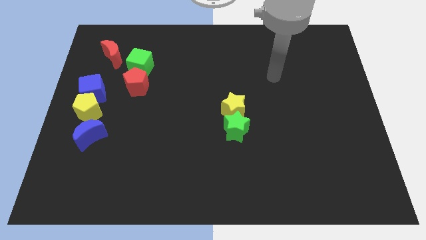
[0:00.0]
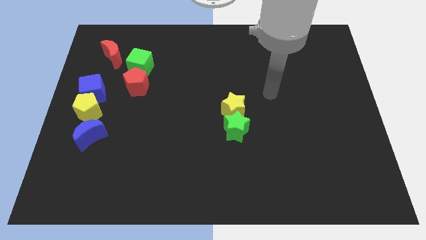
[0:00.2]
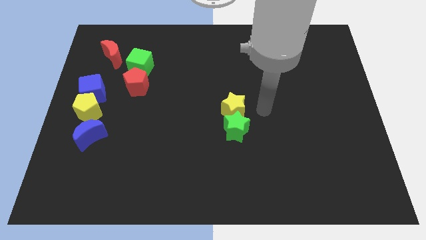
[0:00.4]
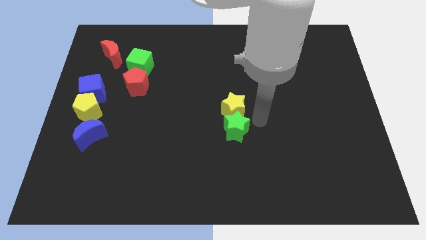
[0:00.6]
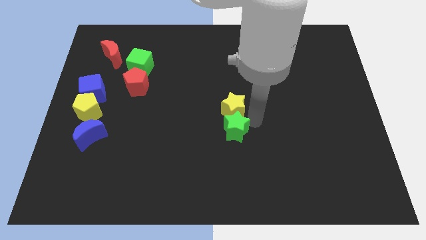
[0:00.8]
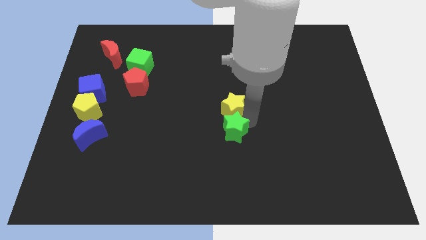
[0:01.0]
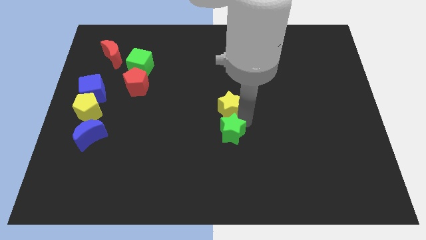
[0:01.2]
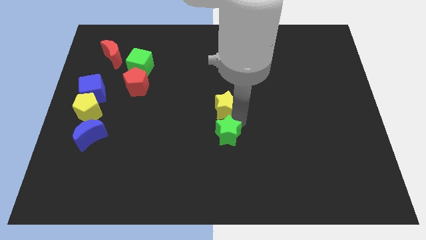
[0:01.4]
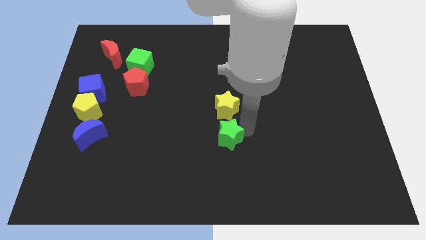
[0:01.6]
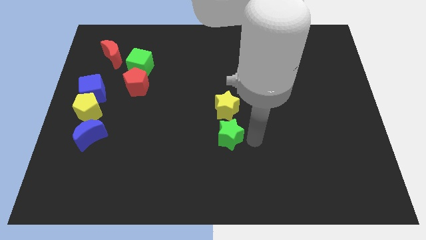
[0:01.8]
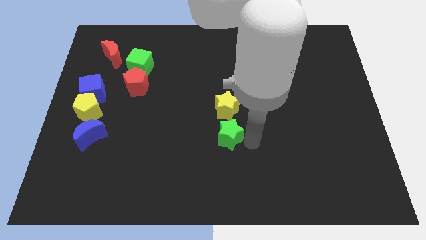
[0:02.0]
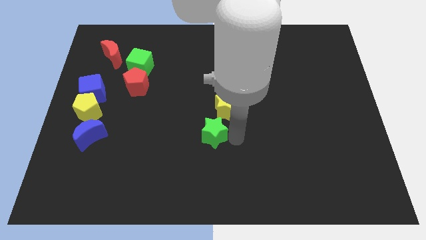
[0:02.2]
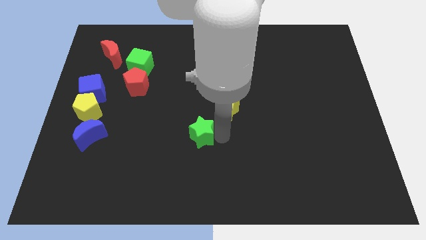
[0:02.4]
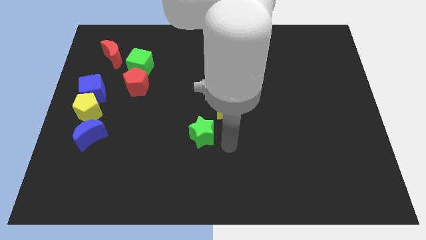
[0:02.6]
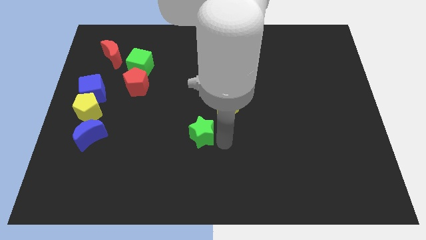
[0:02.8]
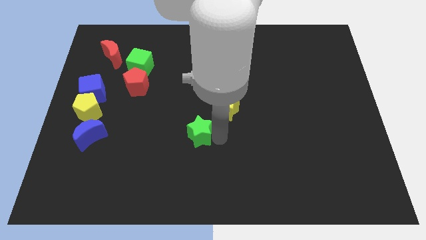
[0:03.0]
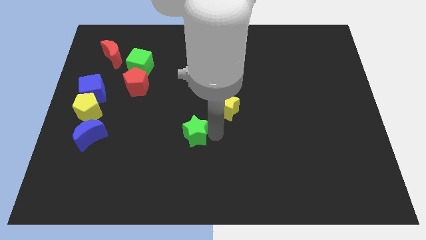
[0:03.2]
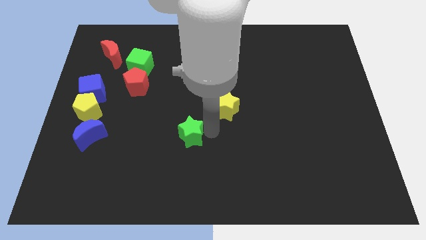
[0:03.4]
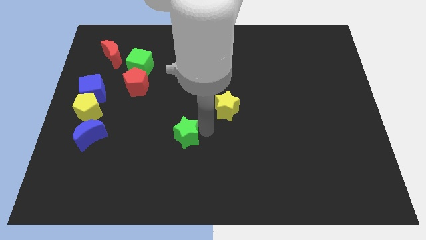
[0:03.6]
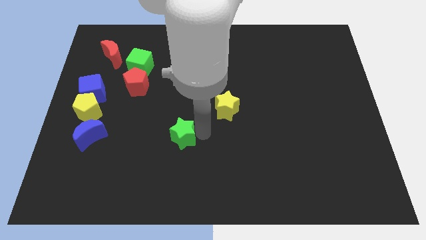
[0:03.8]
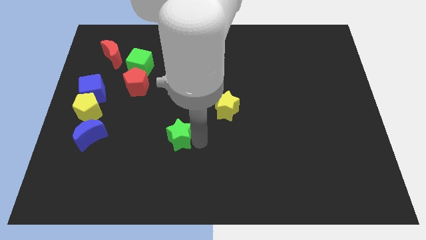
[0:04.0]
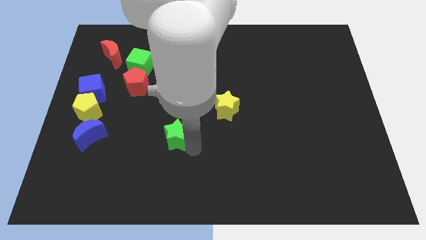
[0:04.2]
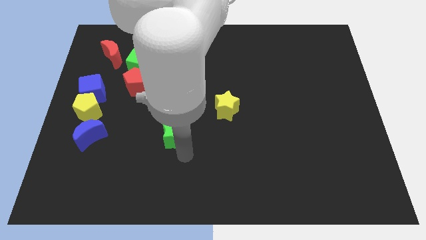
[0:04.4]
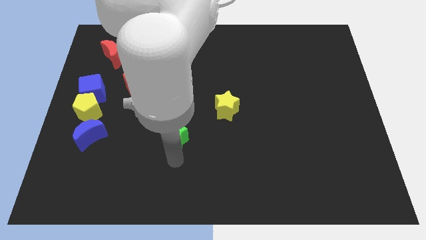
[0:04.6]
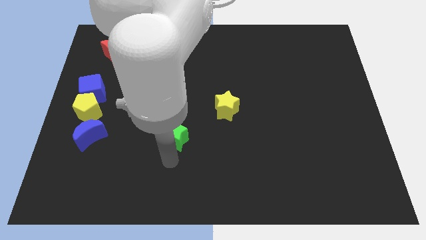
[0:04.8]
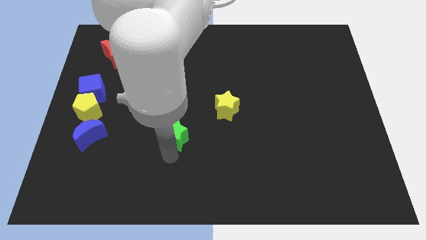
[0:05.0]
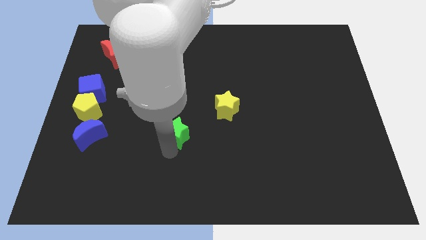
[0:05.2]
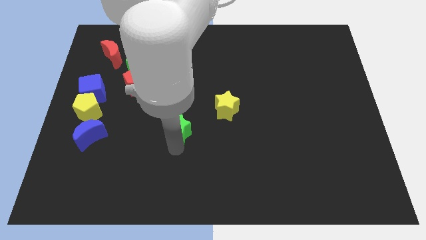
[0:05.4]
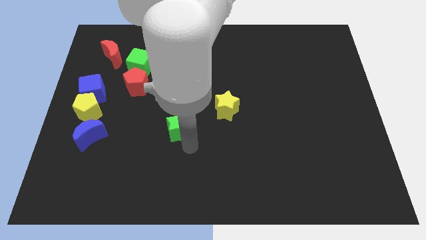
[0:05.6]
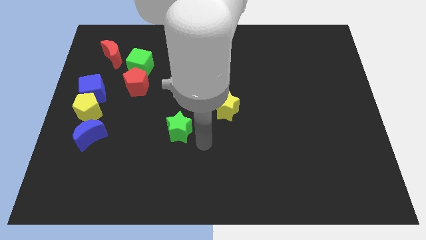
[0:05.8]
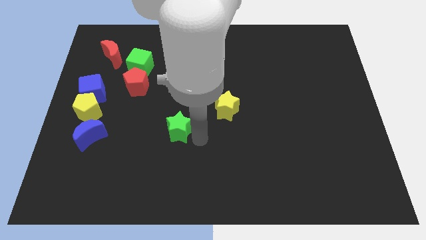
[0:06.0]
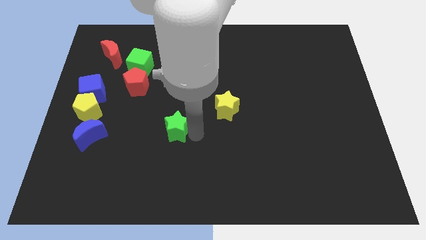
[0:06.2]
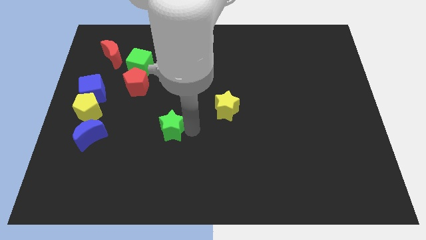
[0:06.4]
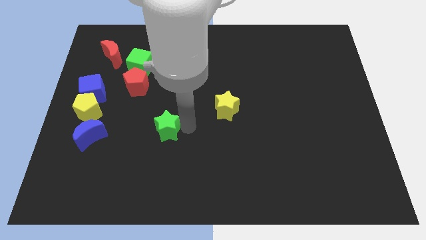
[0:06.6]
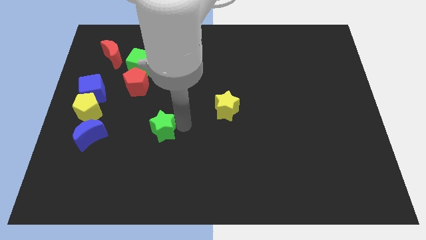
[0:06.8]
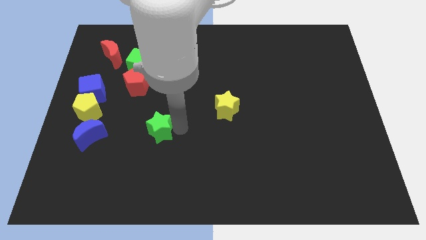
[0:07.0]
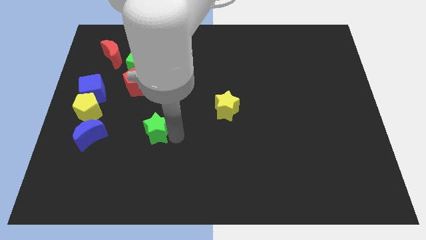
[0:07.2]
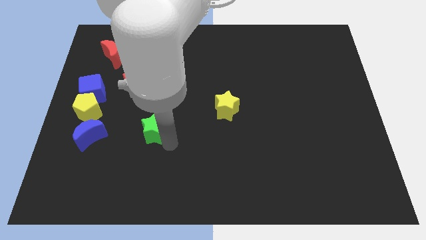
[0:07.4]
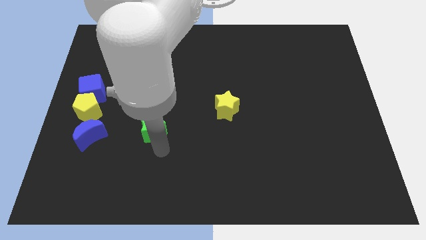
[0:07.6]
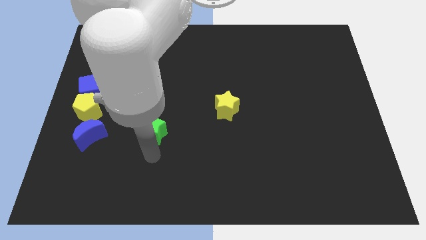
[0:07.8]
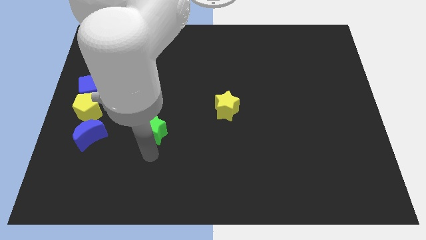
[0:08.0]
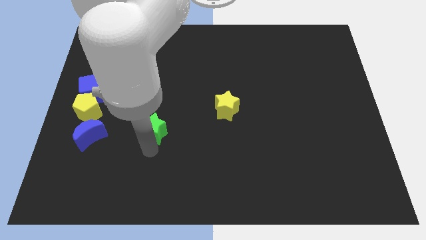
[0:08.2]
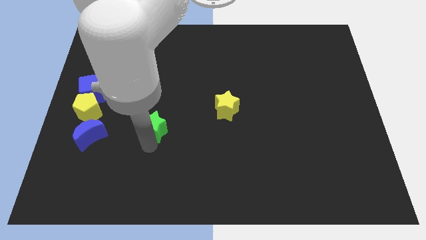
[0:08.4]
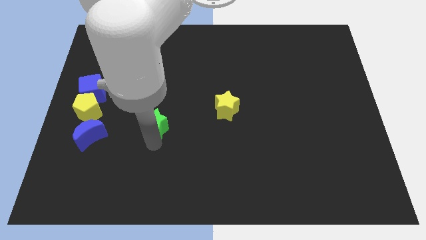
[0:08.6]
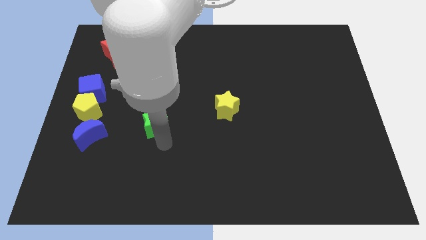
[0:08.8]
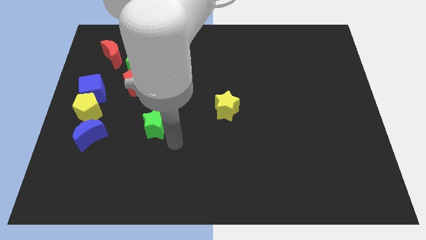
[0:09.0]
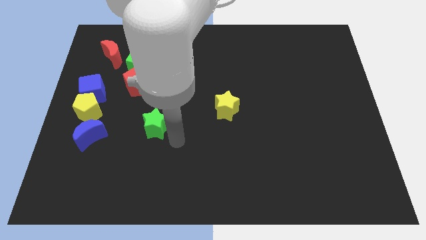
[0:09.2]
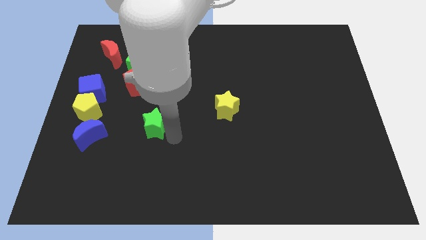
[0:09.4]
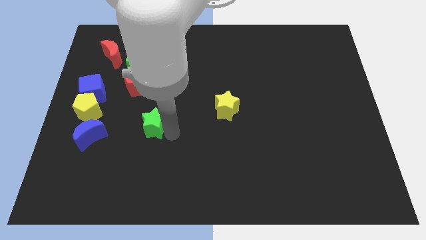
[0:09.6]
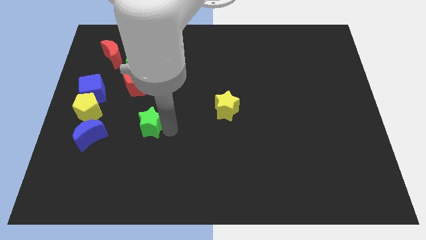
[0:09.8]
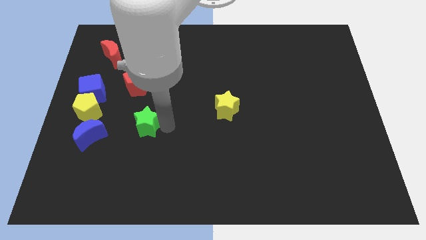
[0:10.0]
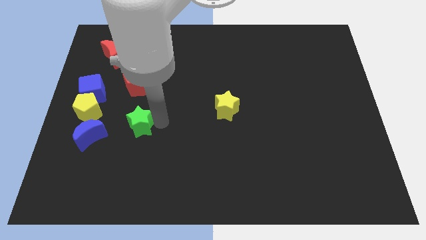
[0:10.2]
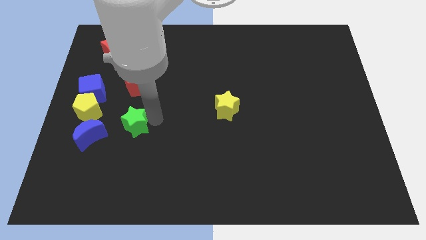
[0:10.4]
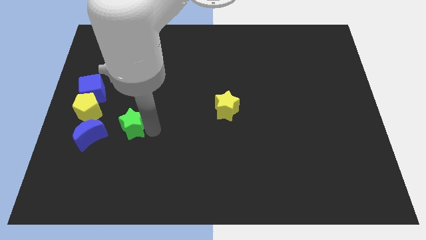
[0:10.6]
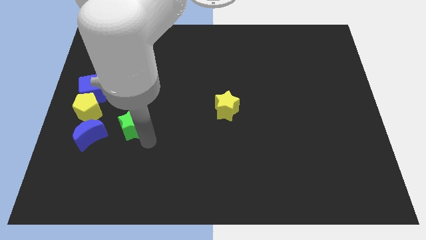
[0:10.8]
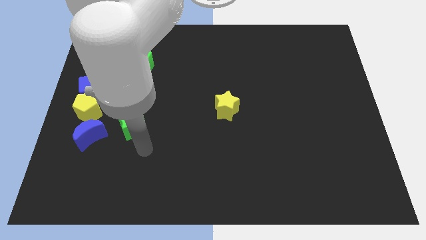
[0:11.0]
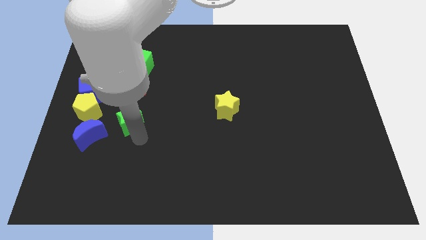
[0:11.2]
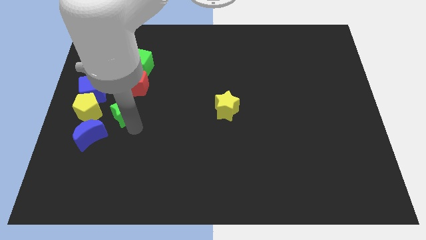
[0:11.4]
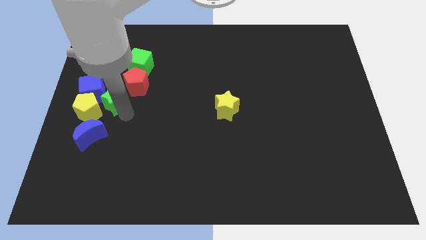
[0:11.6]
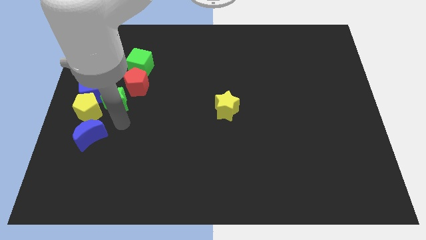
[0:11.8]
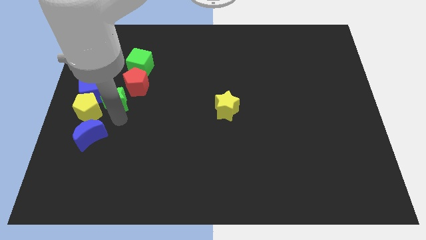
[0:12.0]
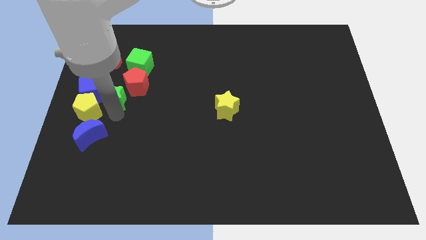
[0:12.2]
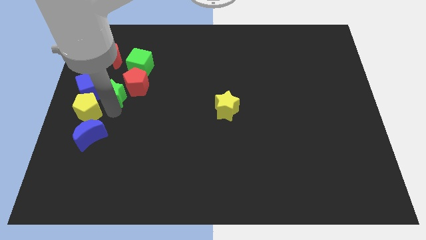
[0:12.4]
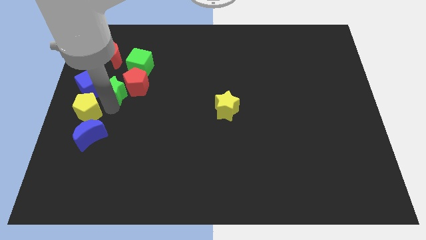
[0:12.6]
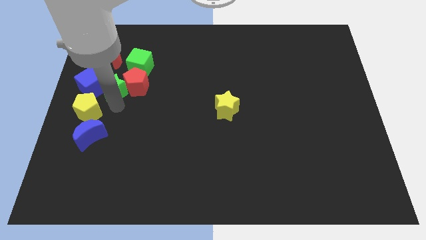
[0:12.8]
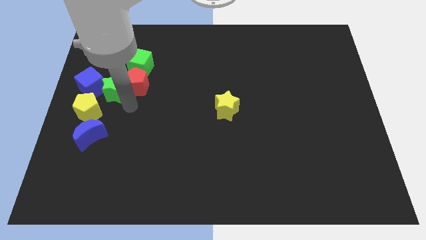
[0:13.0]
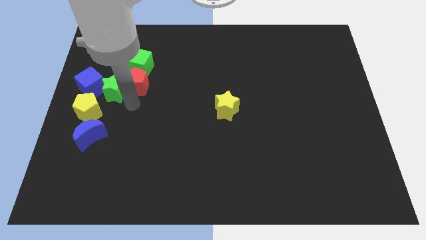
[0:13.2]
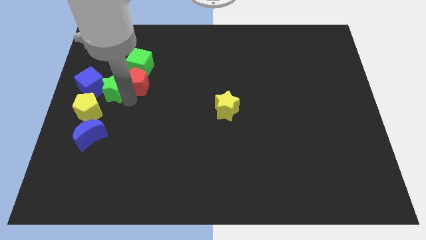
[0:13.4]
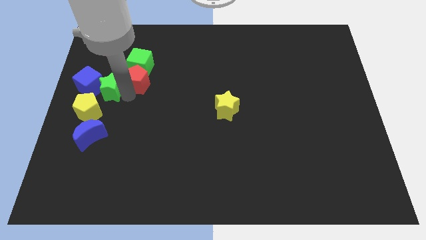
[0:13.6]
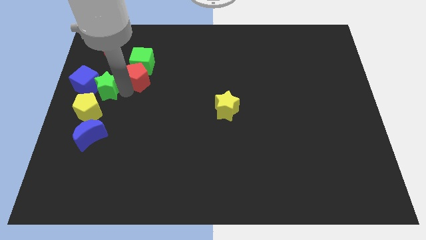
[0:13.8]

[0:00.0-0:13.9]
move the green star to the left side
